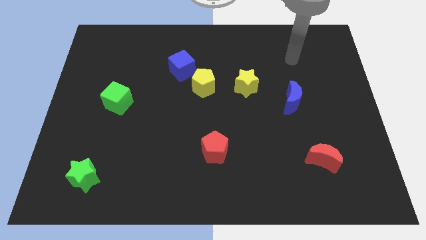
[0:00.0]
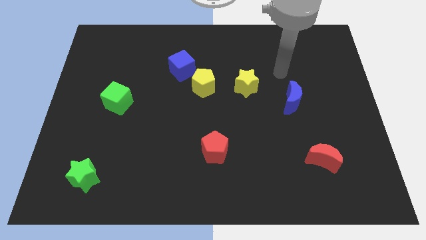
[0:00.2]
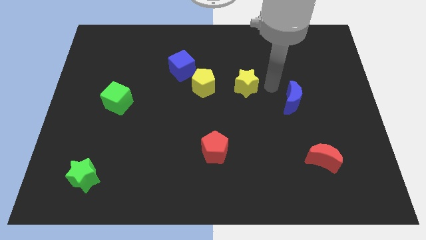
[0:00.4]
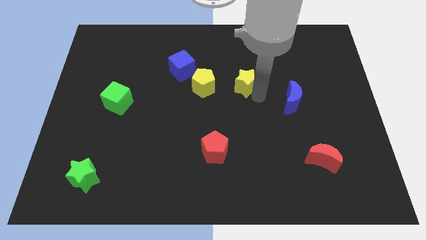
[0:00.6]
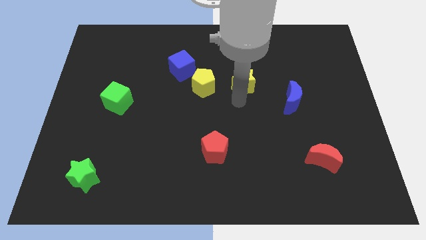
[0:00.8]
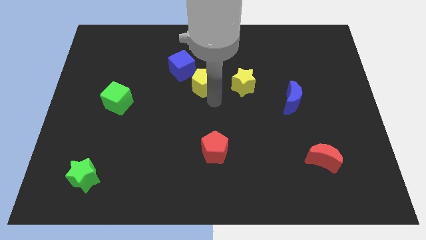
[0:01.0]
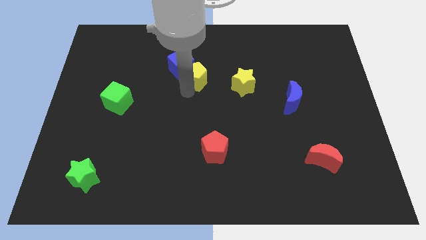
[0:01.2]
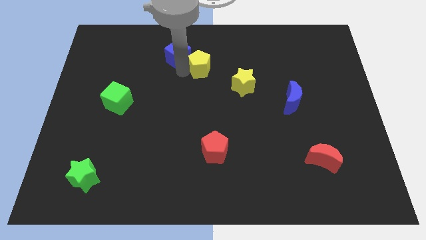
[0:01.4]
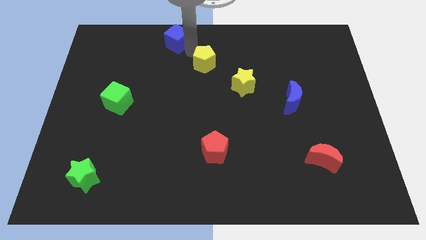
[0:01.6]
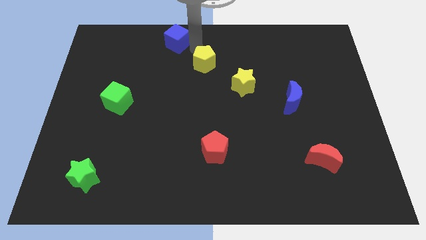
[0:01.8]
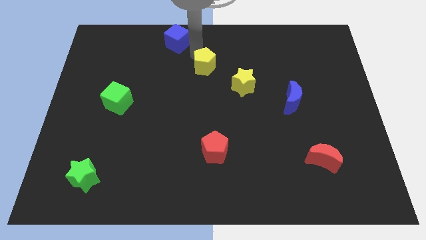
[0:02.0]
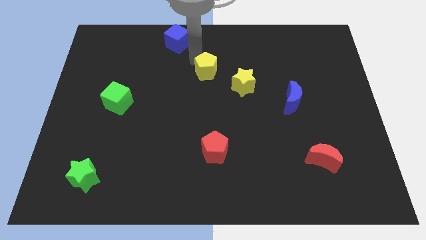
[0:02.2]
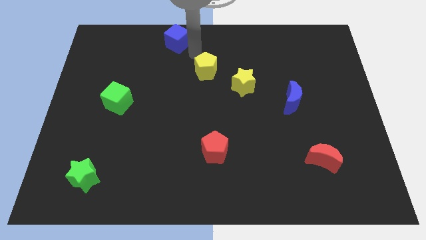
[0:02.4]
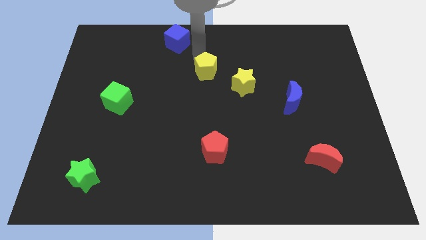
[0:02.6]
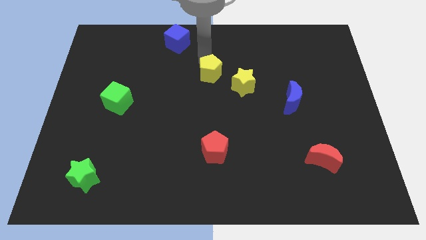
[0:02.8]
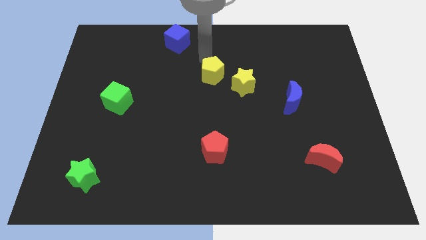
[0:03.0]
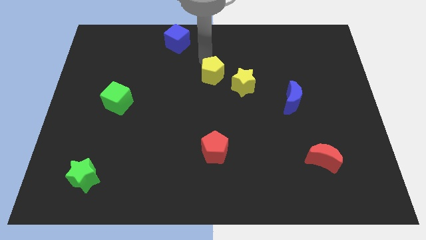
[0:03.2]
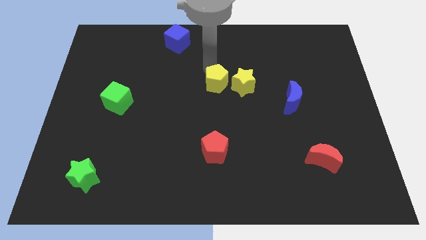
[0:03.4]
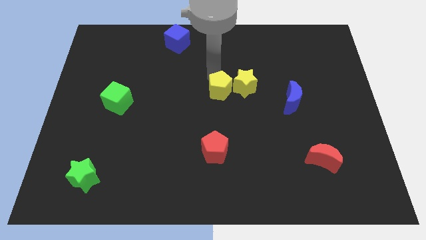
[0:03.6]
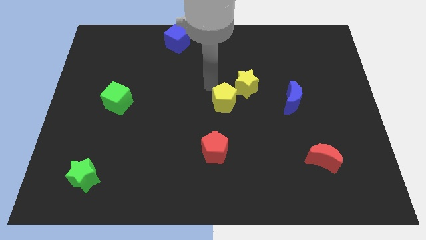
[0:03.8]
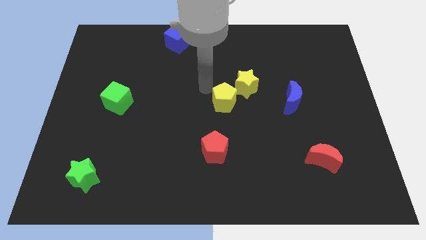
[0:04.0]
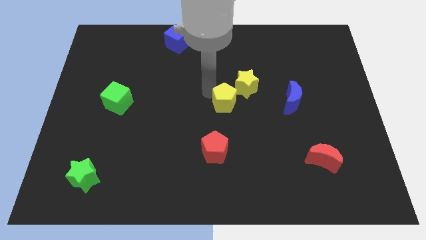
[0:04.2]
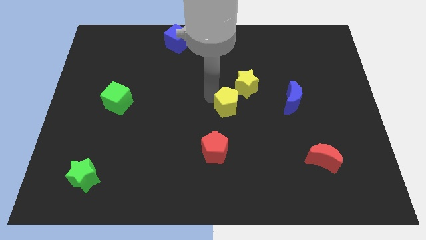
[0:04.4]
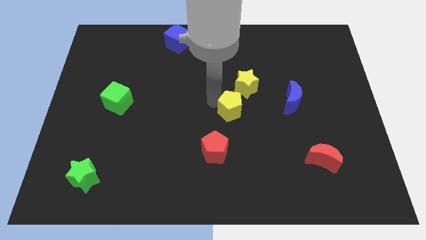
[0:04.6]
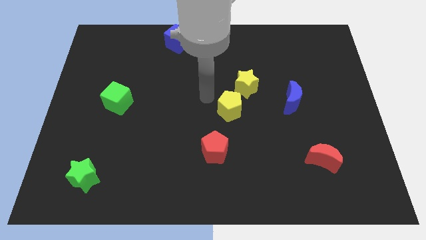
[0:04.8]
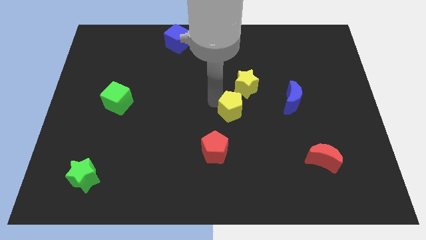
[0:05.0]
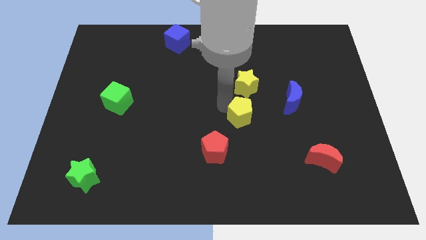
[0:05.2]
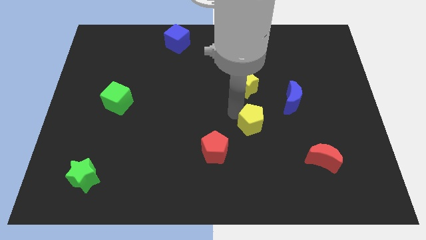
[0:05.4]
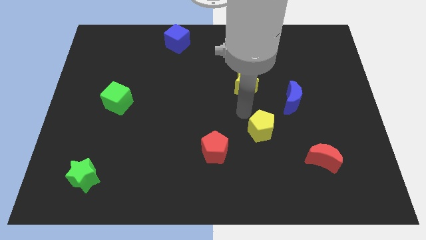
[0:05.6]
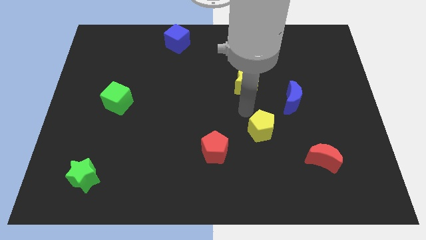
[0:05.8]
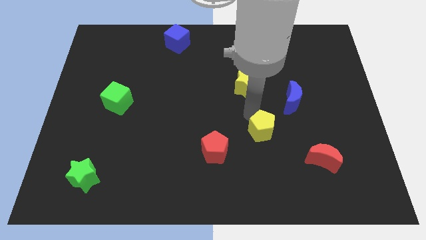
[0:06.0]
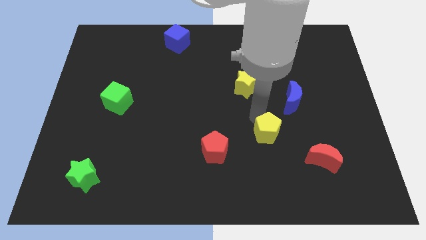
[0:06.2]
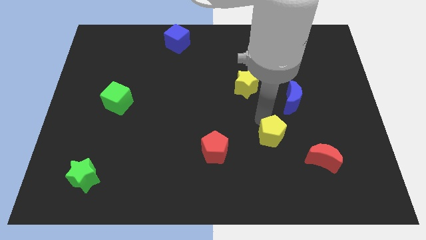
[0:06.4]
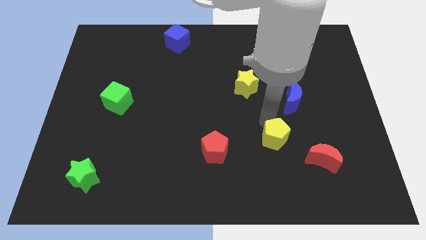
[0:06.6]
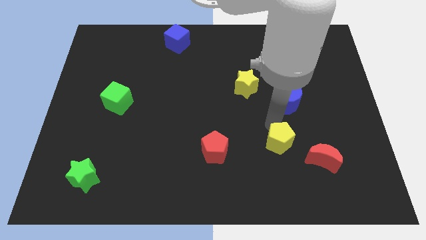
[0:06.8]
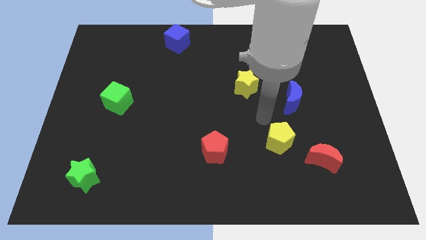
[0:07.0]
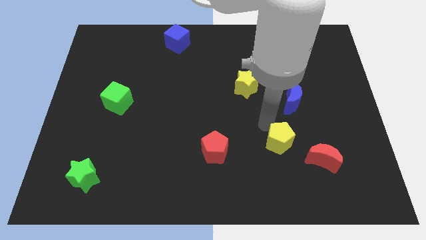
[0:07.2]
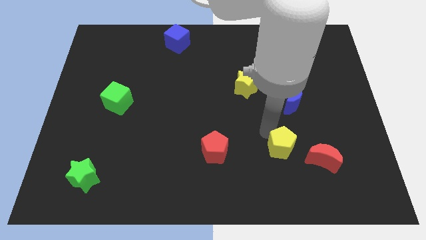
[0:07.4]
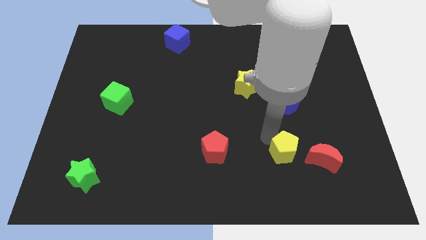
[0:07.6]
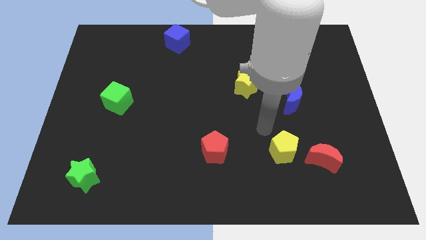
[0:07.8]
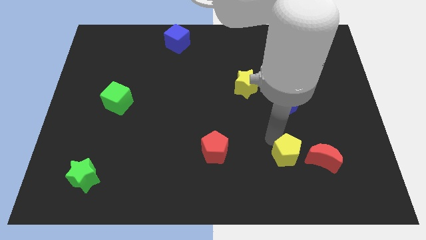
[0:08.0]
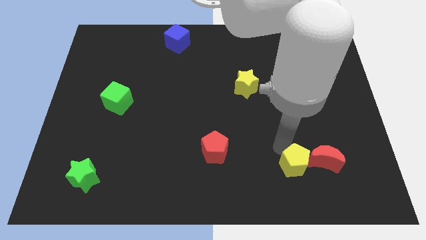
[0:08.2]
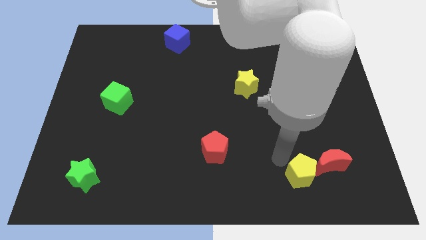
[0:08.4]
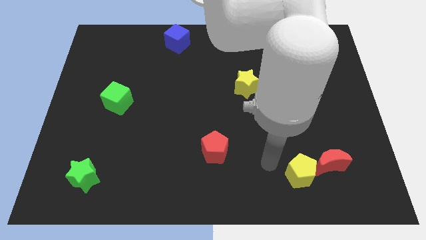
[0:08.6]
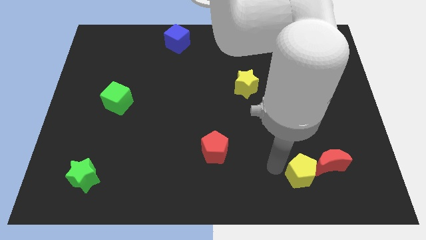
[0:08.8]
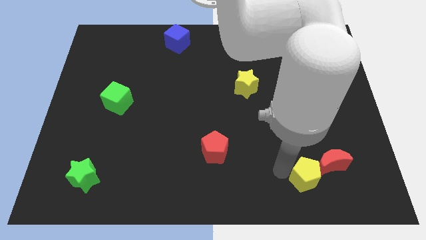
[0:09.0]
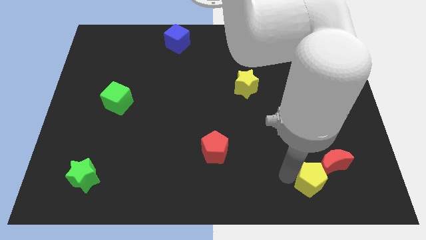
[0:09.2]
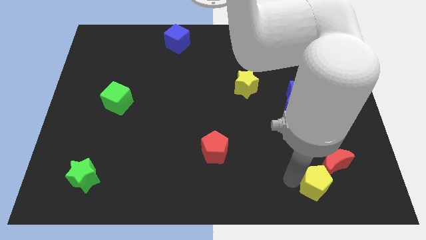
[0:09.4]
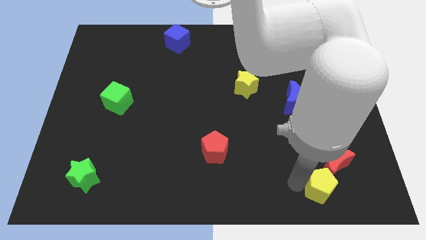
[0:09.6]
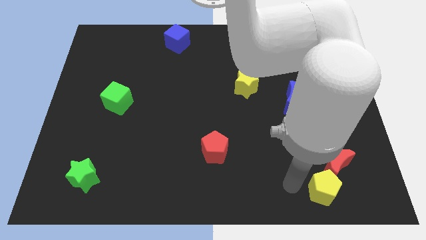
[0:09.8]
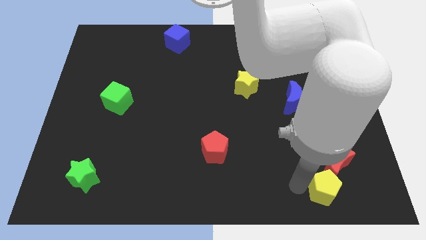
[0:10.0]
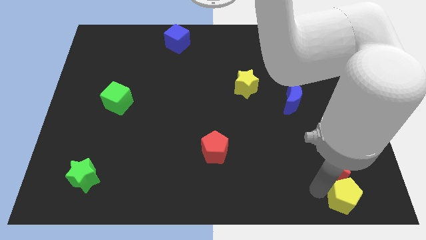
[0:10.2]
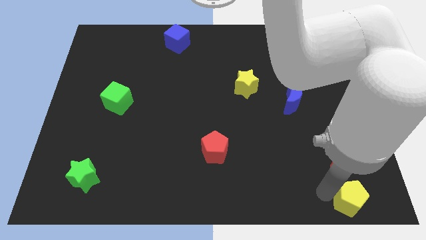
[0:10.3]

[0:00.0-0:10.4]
move the yellow pentagon to the bottom right of the board

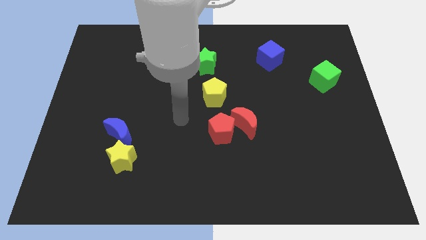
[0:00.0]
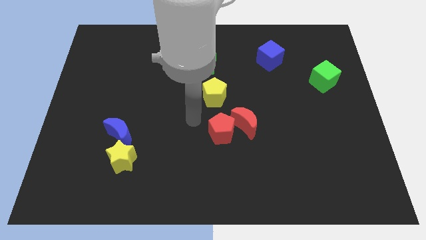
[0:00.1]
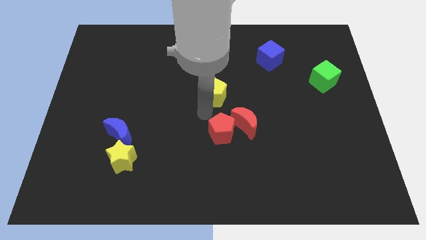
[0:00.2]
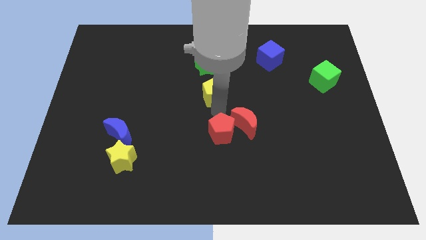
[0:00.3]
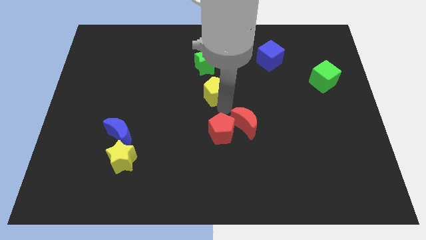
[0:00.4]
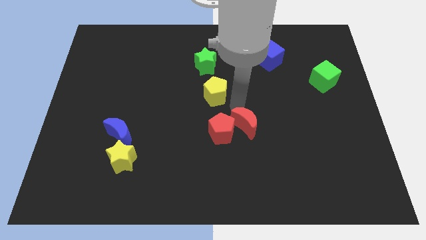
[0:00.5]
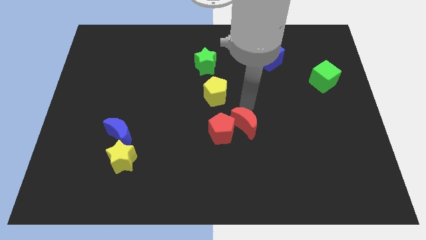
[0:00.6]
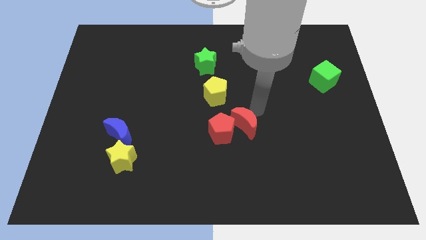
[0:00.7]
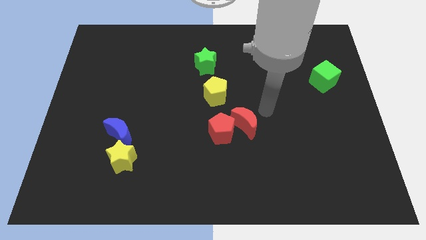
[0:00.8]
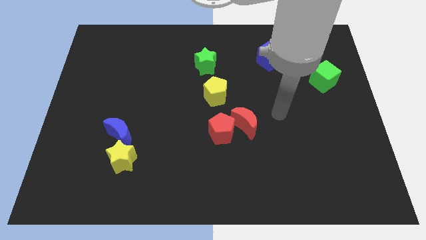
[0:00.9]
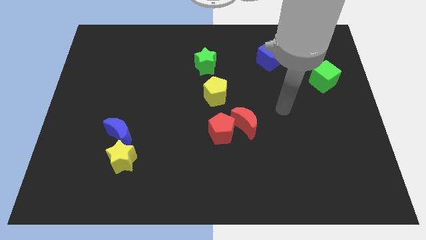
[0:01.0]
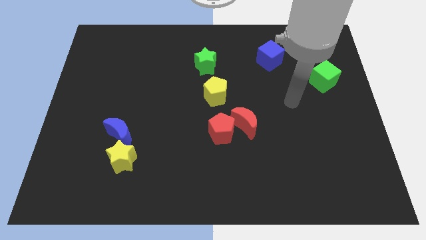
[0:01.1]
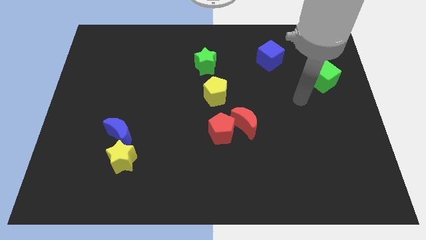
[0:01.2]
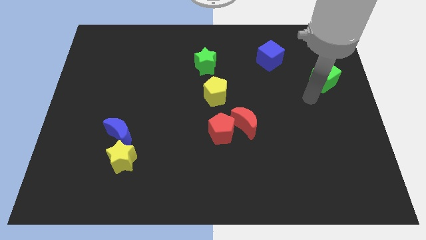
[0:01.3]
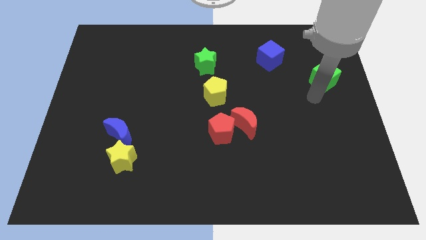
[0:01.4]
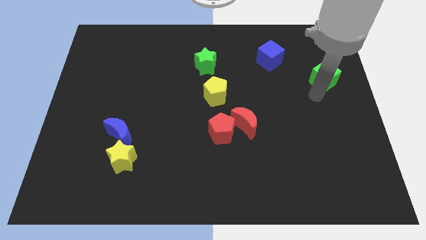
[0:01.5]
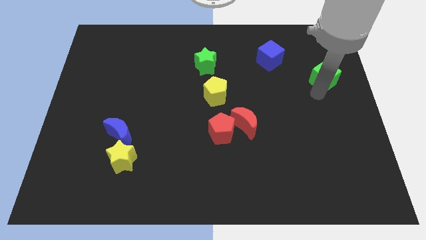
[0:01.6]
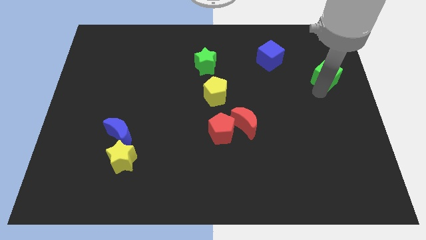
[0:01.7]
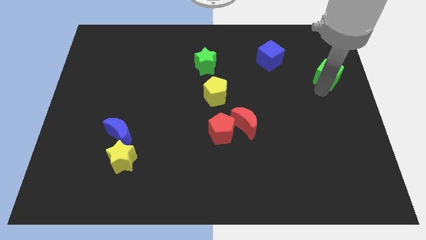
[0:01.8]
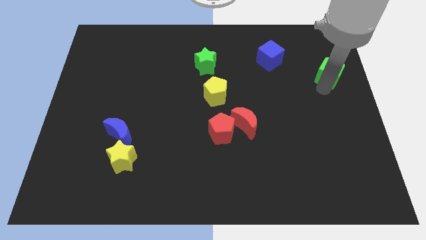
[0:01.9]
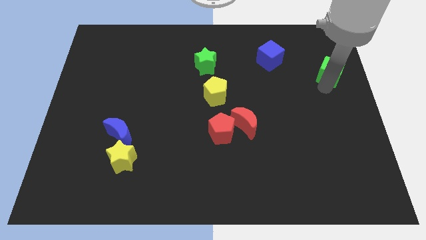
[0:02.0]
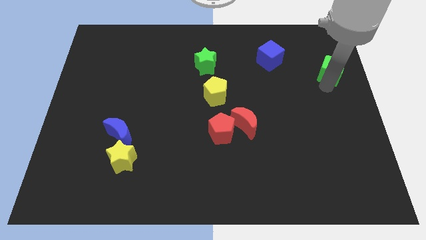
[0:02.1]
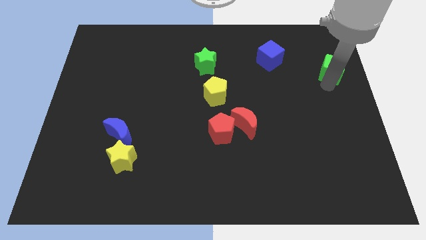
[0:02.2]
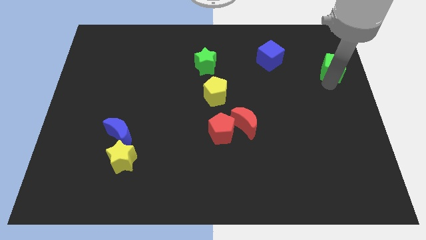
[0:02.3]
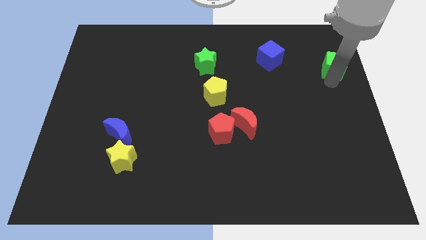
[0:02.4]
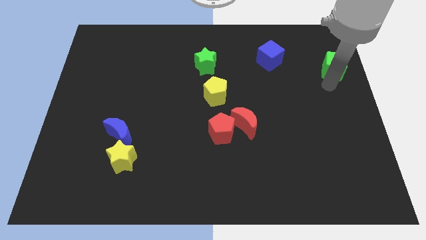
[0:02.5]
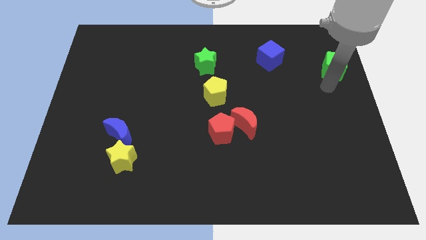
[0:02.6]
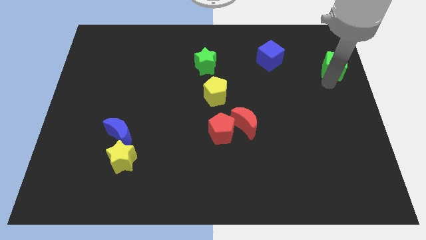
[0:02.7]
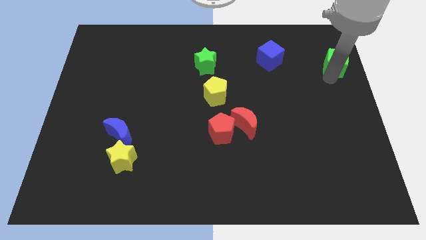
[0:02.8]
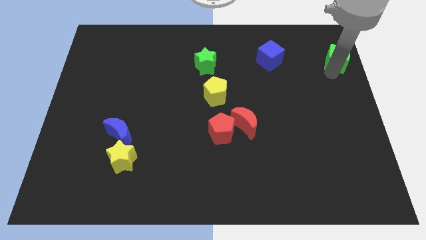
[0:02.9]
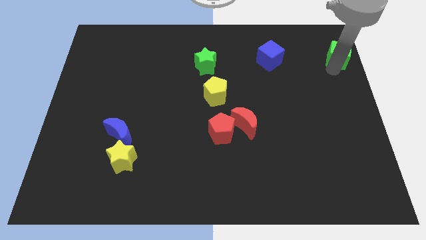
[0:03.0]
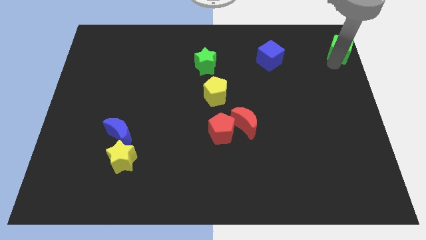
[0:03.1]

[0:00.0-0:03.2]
put the green cube to the upper right corner
